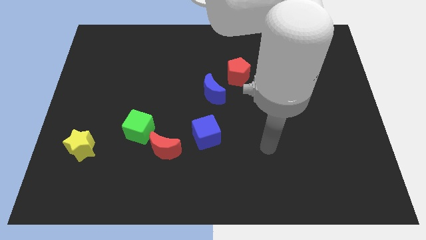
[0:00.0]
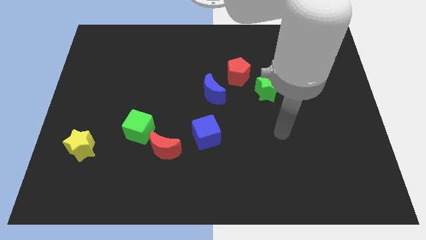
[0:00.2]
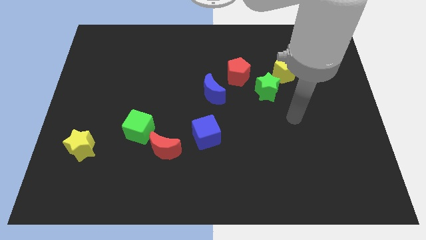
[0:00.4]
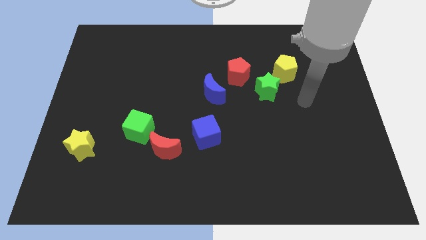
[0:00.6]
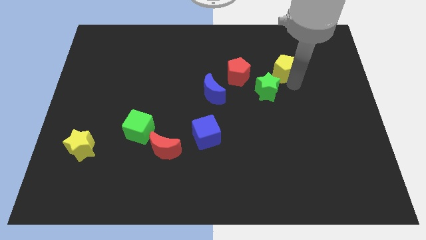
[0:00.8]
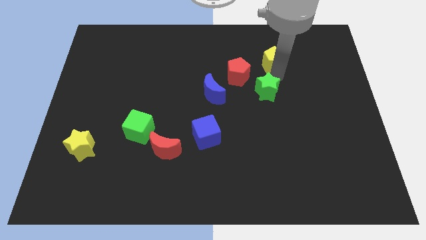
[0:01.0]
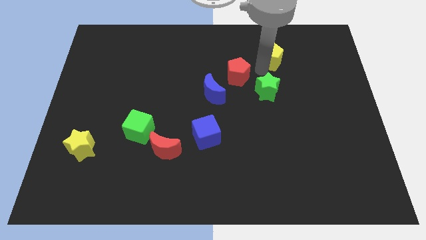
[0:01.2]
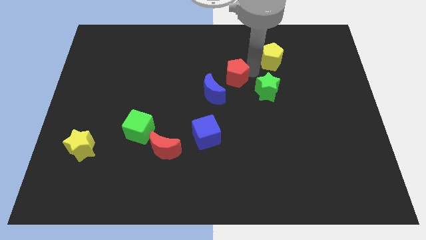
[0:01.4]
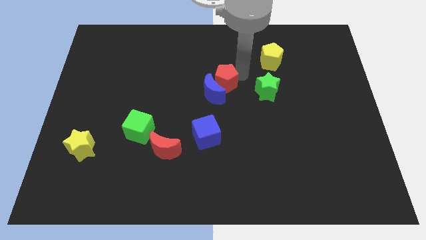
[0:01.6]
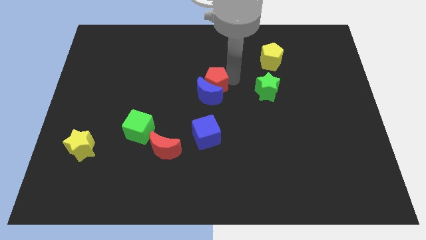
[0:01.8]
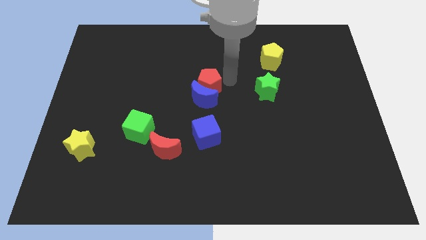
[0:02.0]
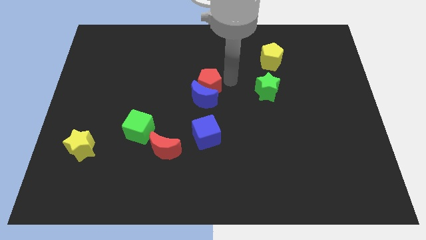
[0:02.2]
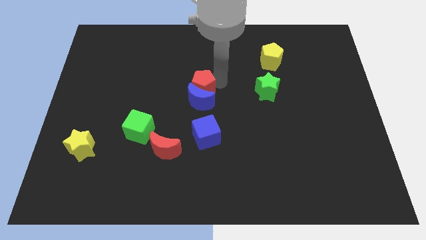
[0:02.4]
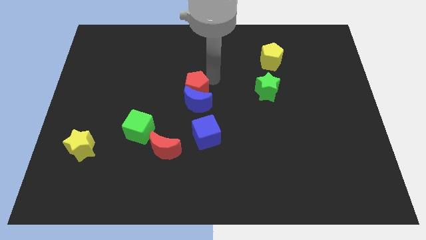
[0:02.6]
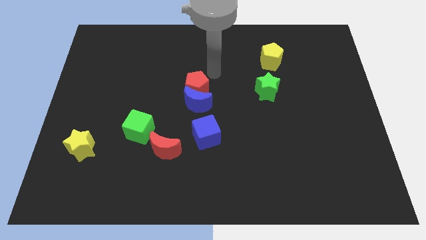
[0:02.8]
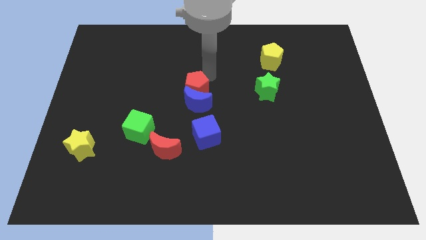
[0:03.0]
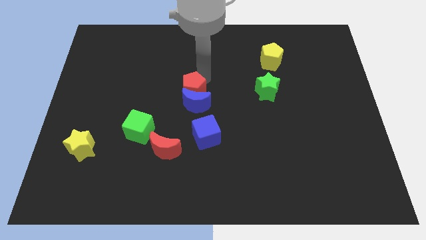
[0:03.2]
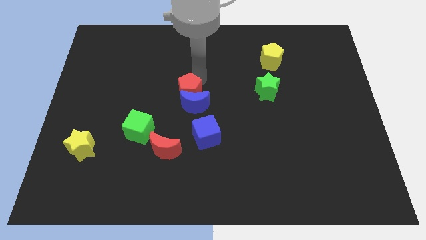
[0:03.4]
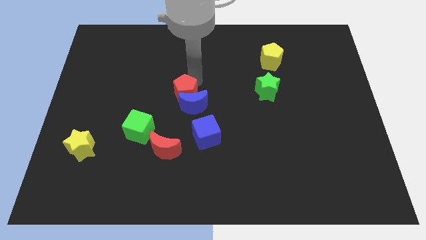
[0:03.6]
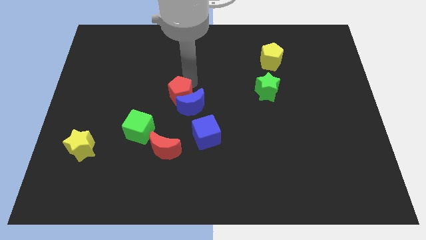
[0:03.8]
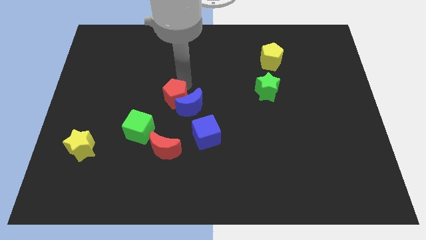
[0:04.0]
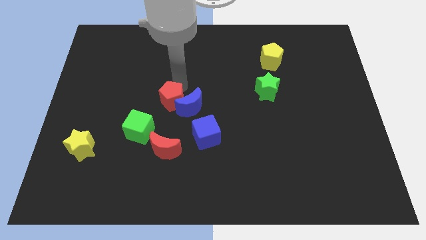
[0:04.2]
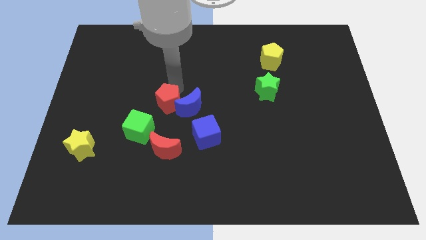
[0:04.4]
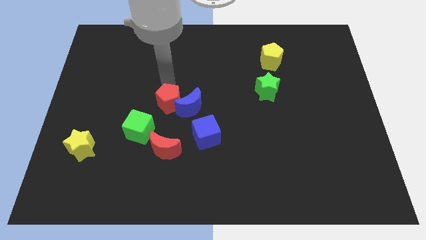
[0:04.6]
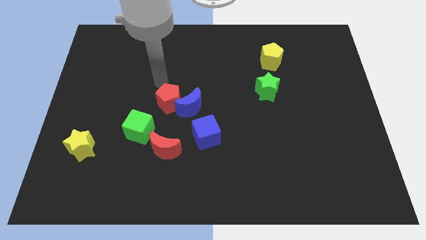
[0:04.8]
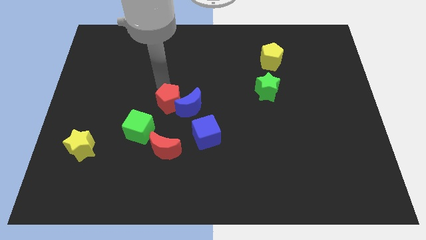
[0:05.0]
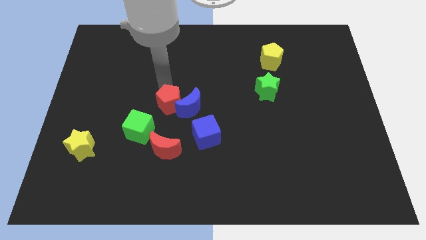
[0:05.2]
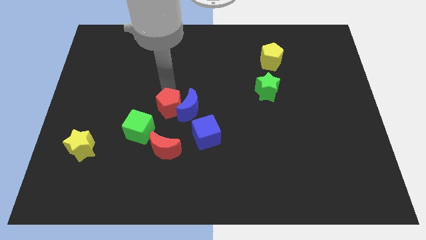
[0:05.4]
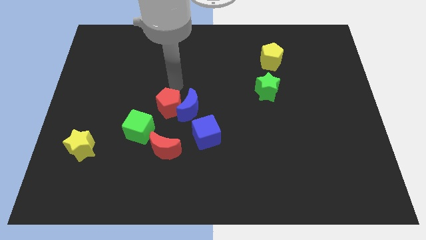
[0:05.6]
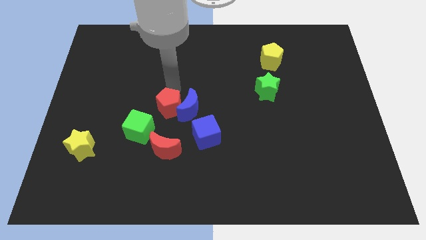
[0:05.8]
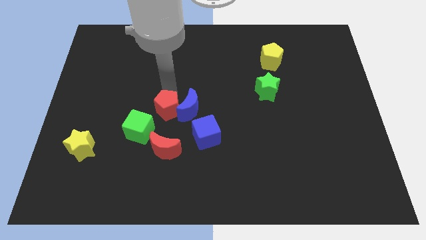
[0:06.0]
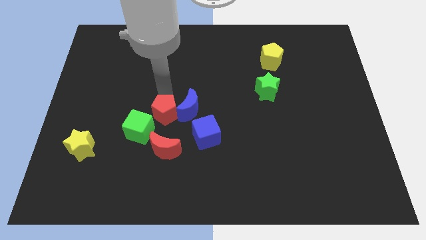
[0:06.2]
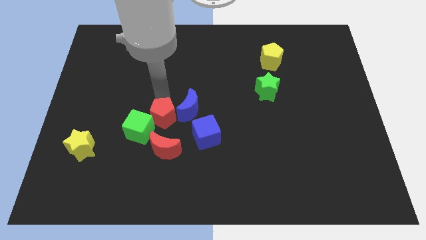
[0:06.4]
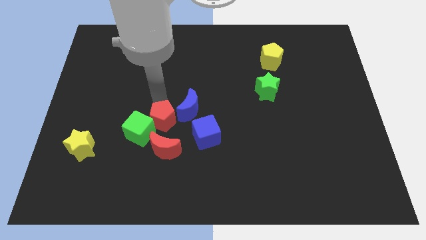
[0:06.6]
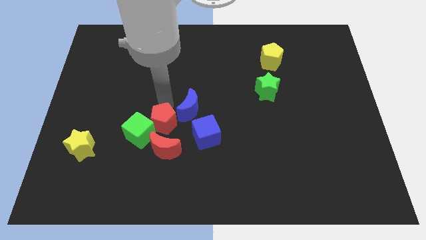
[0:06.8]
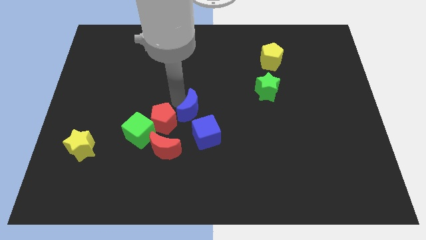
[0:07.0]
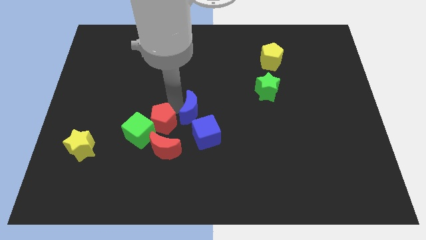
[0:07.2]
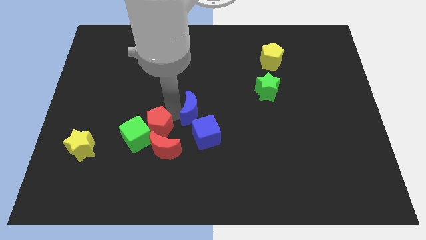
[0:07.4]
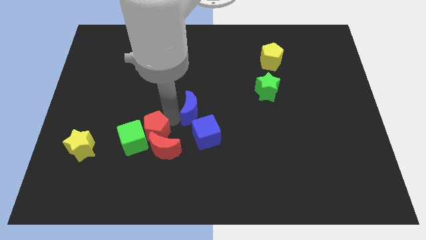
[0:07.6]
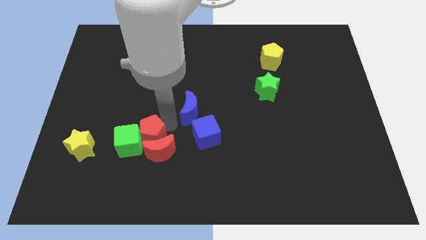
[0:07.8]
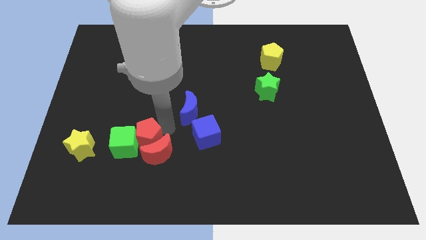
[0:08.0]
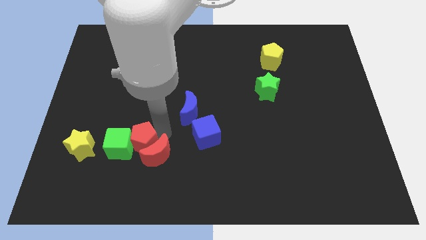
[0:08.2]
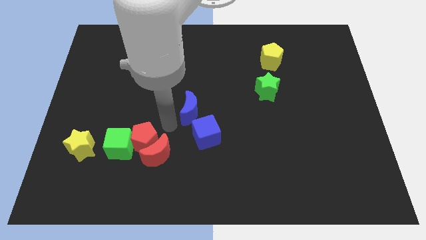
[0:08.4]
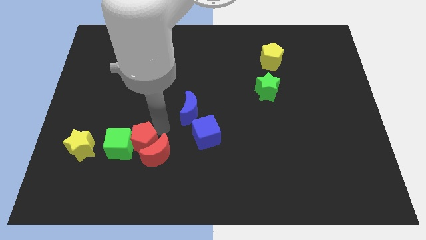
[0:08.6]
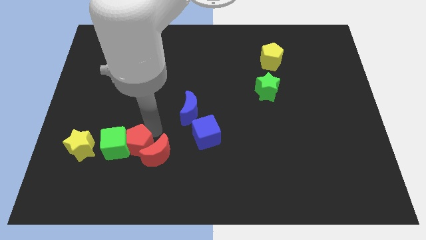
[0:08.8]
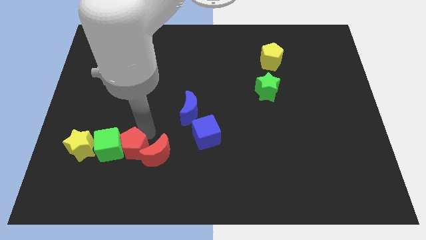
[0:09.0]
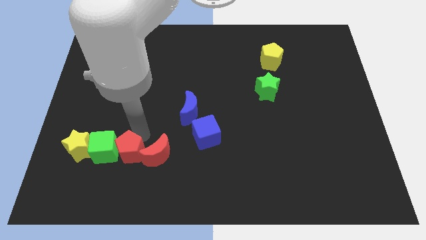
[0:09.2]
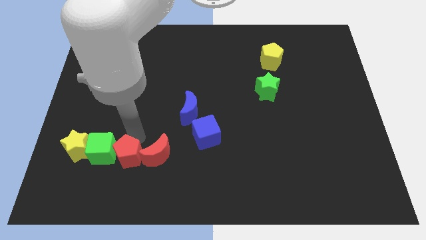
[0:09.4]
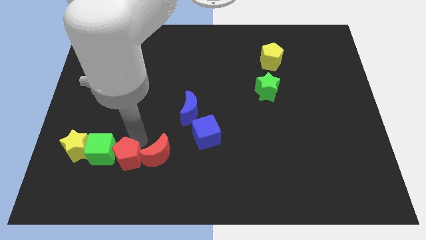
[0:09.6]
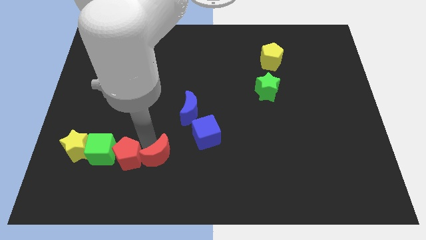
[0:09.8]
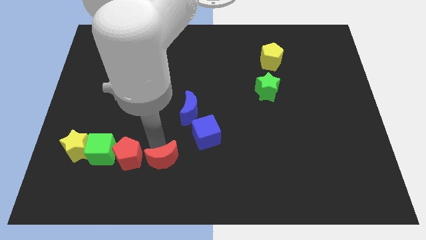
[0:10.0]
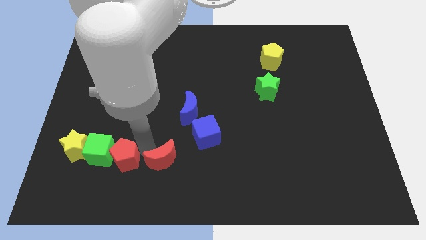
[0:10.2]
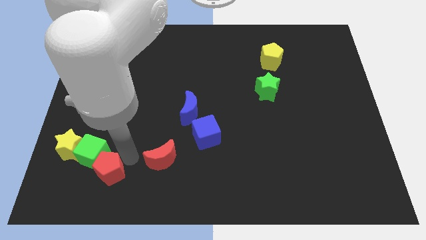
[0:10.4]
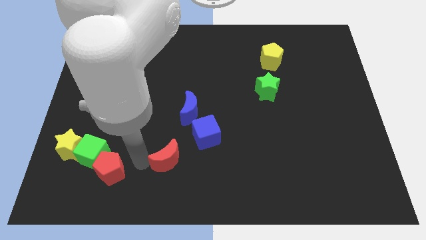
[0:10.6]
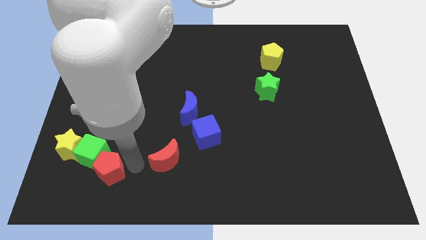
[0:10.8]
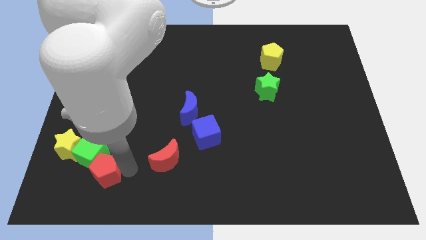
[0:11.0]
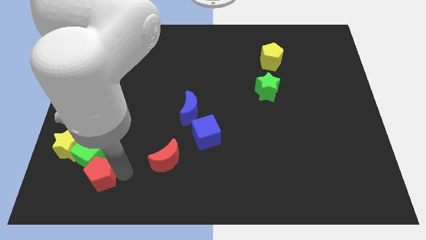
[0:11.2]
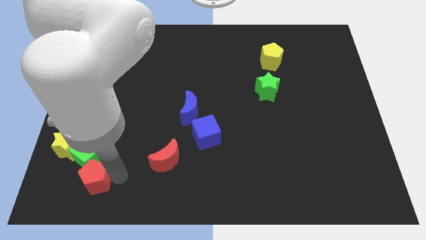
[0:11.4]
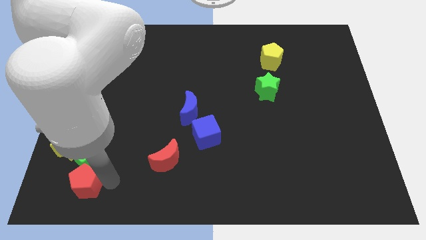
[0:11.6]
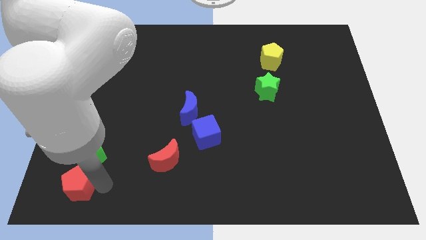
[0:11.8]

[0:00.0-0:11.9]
slide the red pentagon to the bottom left
